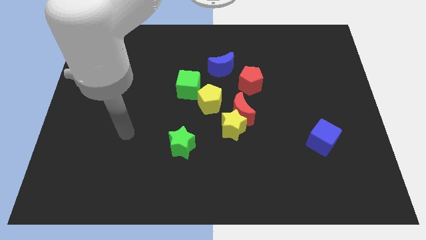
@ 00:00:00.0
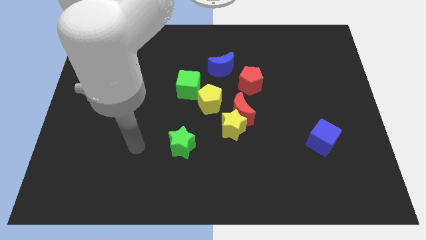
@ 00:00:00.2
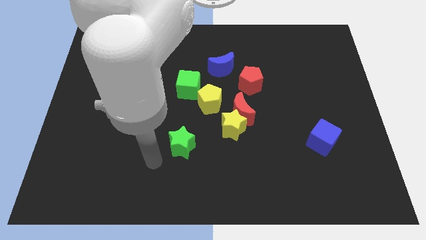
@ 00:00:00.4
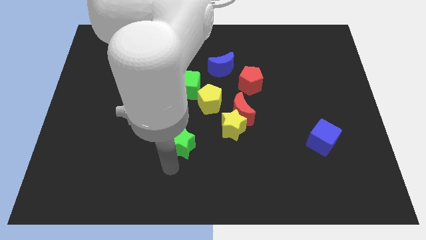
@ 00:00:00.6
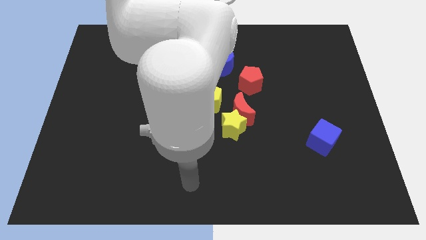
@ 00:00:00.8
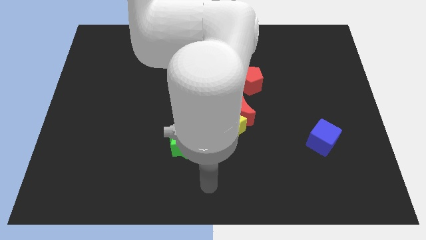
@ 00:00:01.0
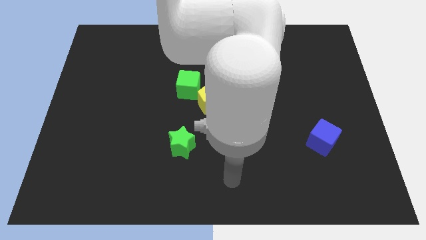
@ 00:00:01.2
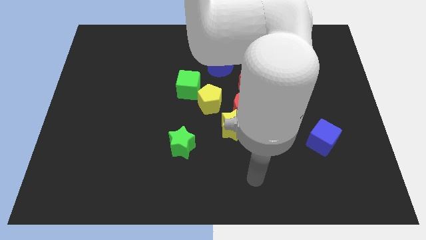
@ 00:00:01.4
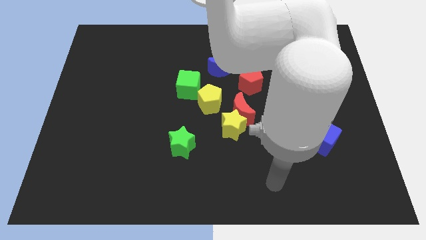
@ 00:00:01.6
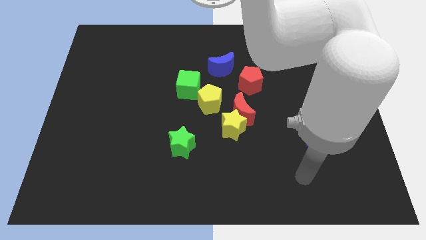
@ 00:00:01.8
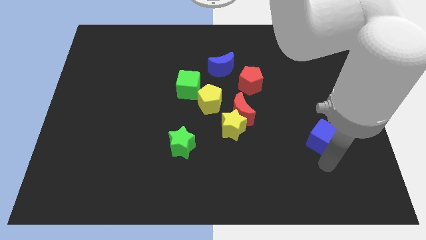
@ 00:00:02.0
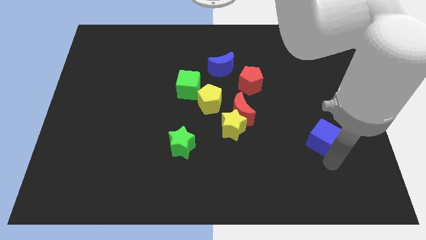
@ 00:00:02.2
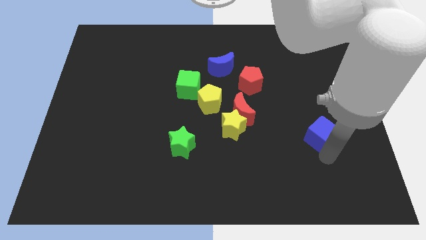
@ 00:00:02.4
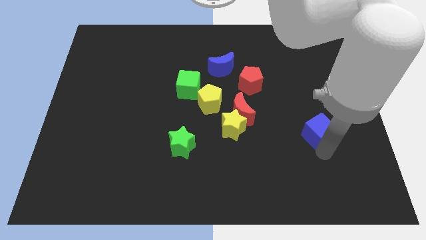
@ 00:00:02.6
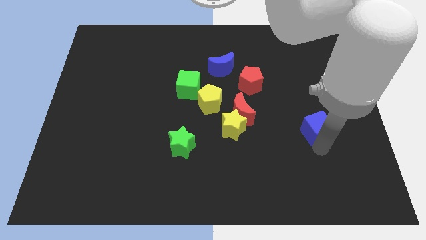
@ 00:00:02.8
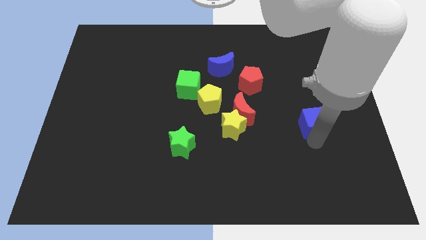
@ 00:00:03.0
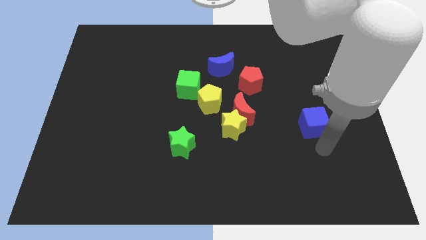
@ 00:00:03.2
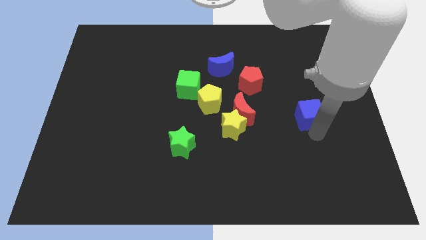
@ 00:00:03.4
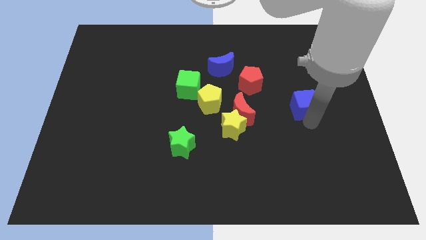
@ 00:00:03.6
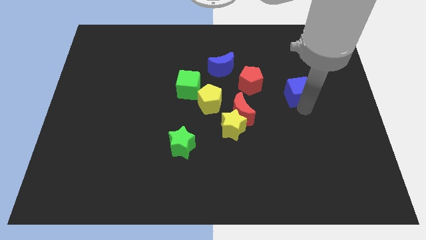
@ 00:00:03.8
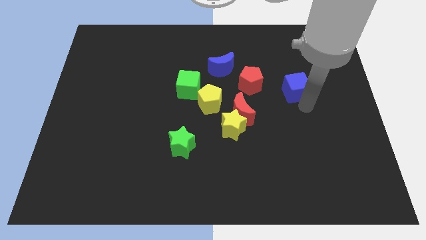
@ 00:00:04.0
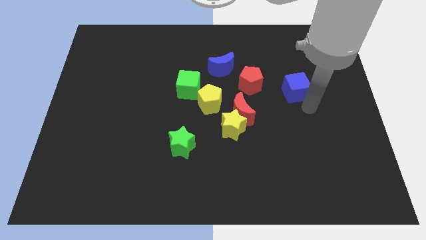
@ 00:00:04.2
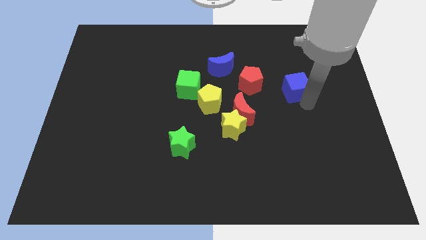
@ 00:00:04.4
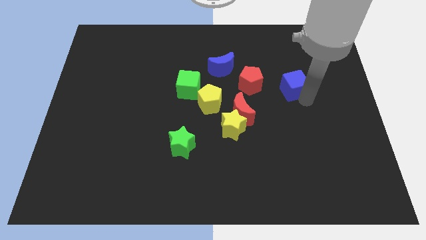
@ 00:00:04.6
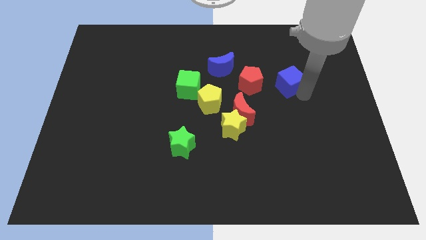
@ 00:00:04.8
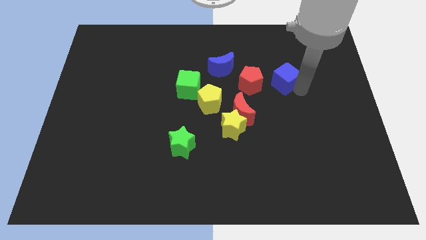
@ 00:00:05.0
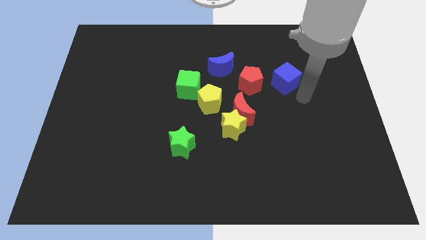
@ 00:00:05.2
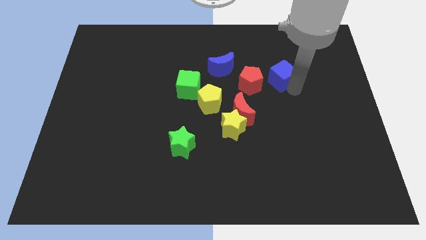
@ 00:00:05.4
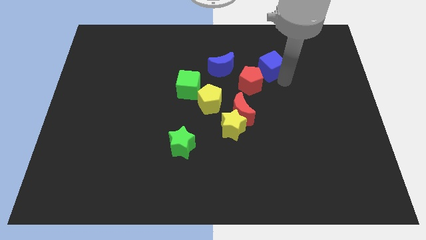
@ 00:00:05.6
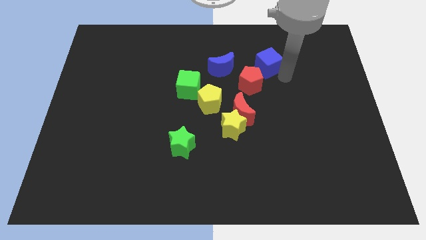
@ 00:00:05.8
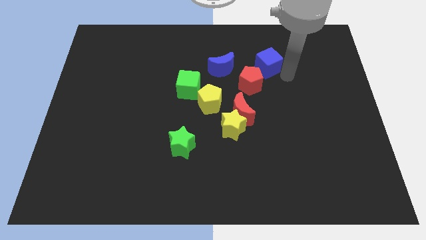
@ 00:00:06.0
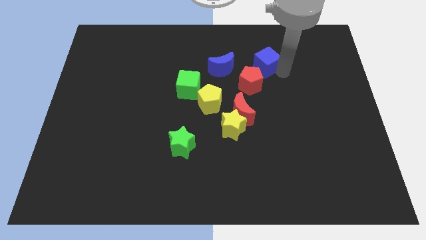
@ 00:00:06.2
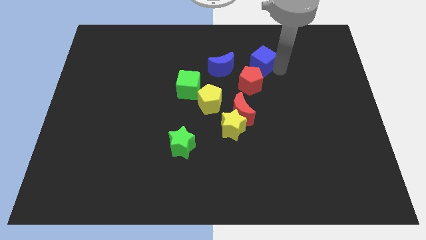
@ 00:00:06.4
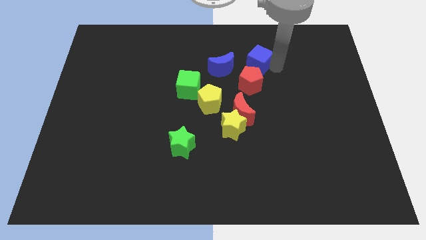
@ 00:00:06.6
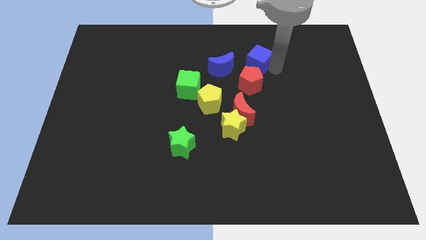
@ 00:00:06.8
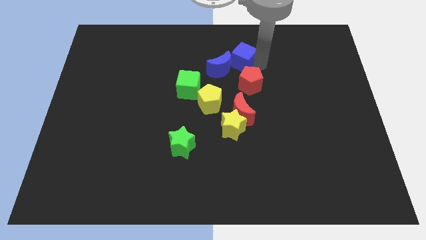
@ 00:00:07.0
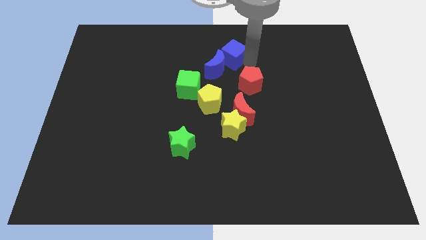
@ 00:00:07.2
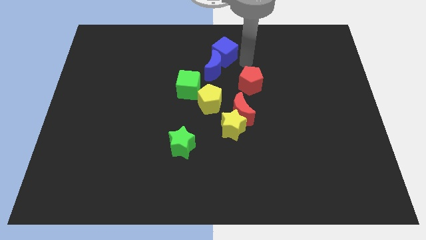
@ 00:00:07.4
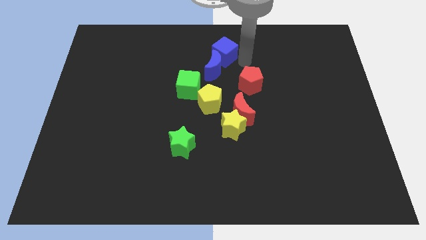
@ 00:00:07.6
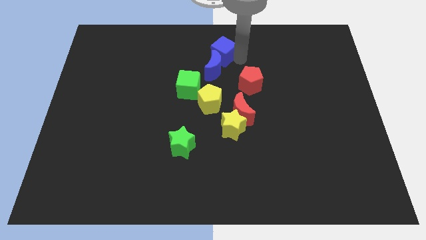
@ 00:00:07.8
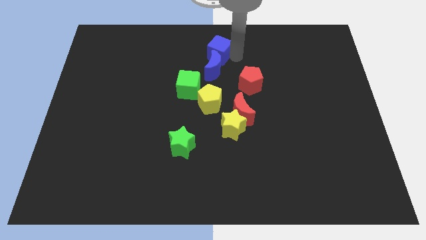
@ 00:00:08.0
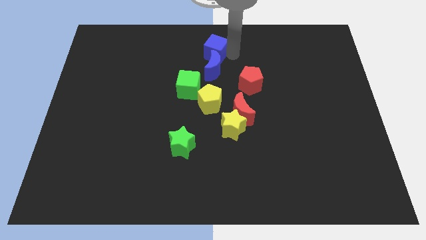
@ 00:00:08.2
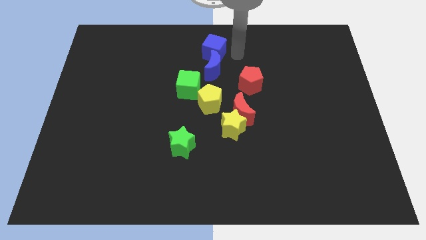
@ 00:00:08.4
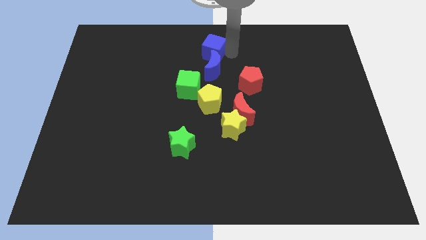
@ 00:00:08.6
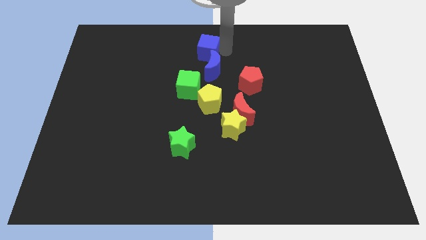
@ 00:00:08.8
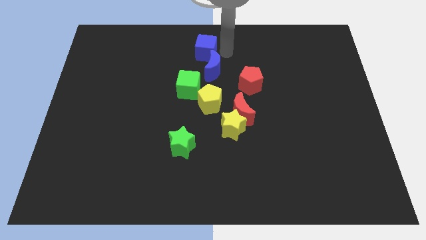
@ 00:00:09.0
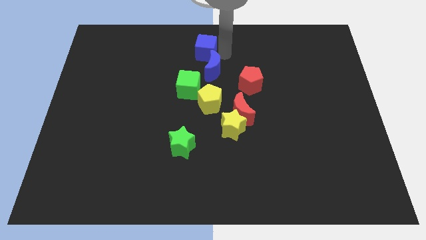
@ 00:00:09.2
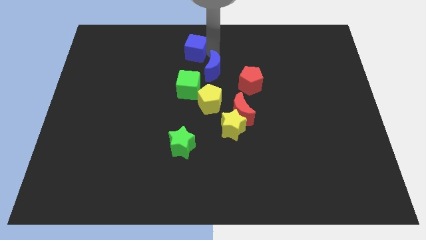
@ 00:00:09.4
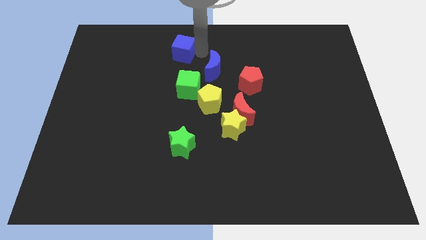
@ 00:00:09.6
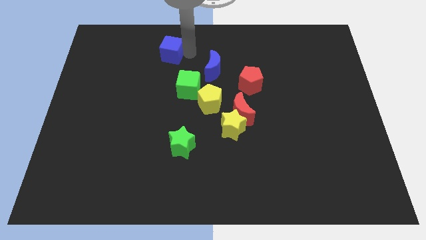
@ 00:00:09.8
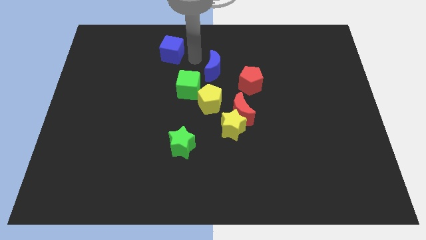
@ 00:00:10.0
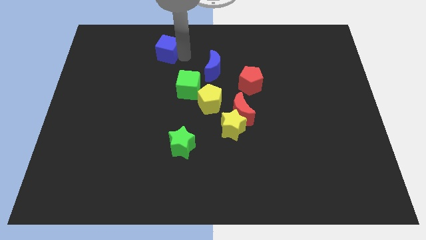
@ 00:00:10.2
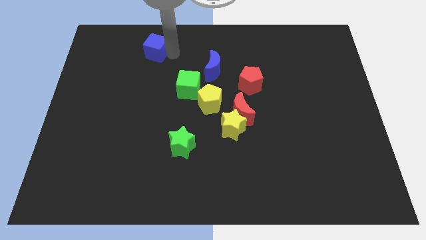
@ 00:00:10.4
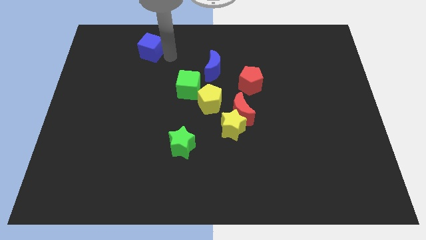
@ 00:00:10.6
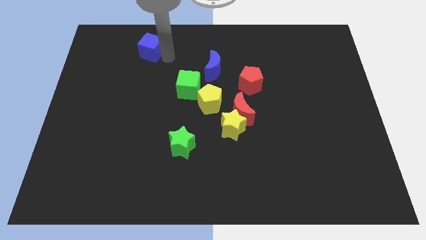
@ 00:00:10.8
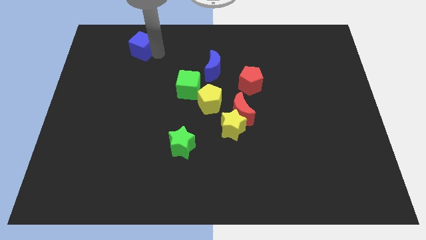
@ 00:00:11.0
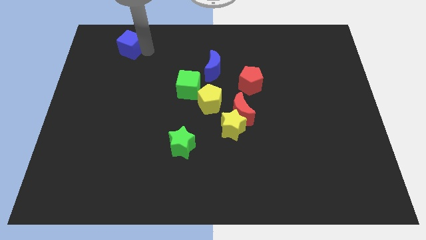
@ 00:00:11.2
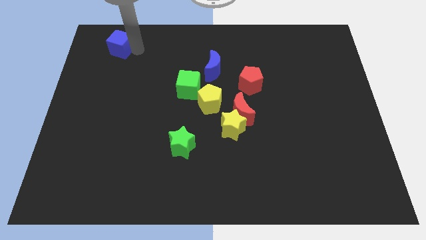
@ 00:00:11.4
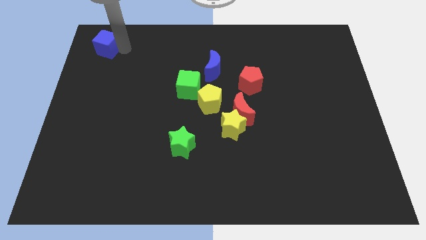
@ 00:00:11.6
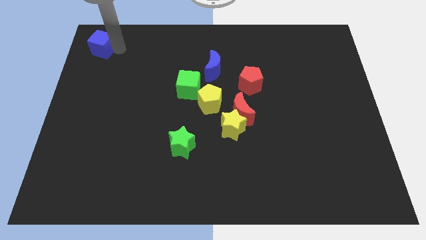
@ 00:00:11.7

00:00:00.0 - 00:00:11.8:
put the blue cube to the upper left corner

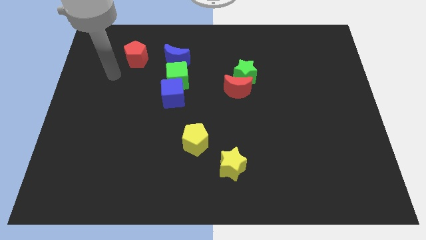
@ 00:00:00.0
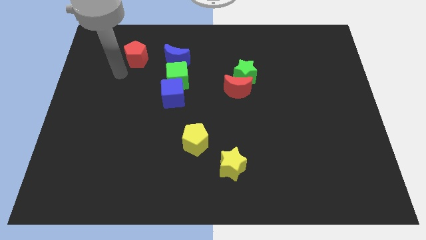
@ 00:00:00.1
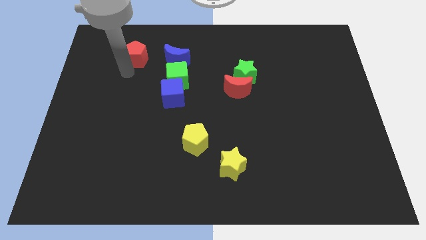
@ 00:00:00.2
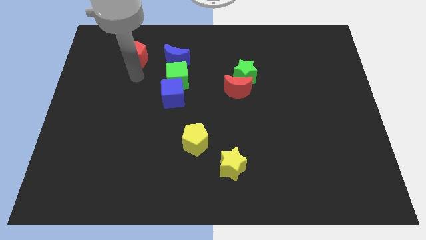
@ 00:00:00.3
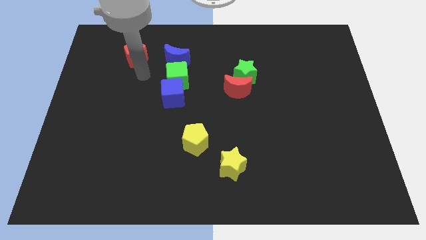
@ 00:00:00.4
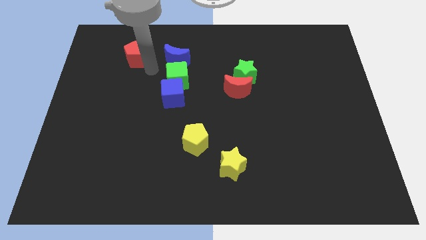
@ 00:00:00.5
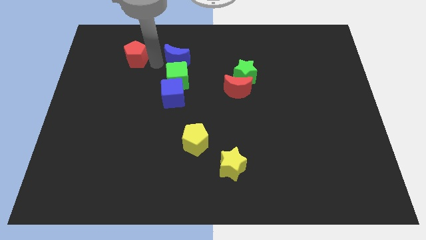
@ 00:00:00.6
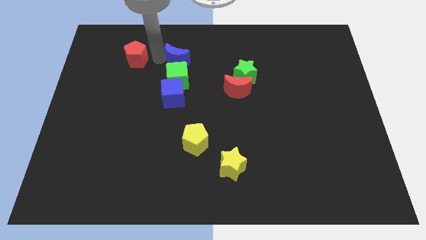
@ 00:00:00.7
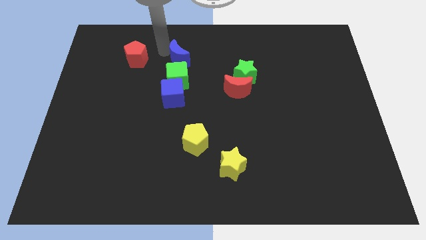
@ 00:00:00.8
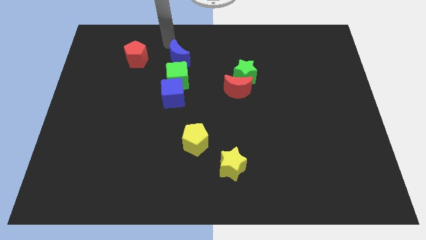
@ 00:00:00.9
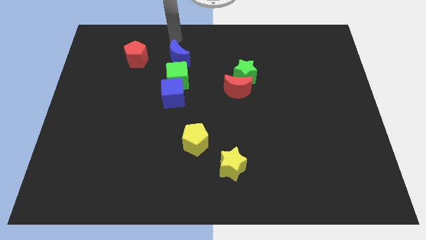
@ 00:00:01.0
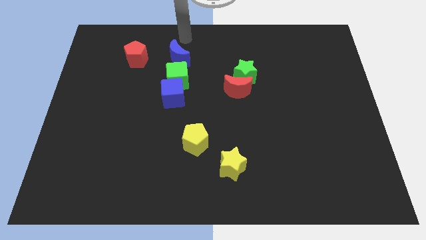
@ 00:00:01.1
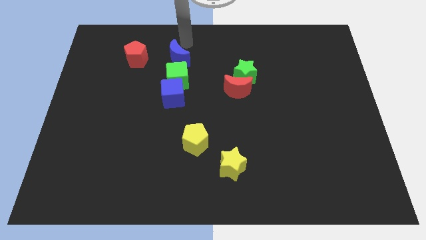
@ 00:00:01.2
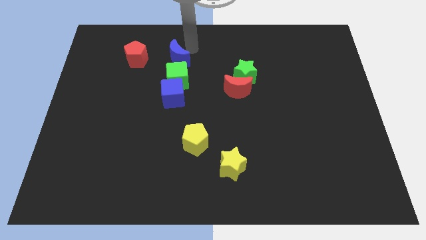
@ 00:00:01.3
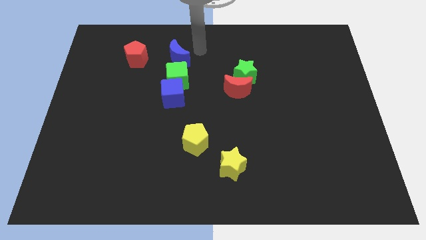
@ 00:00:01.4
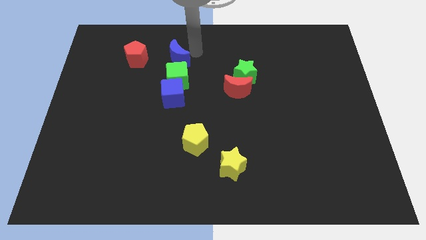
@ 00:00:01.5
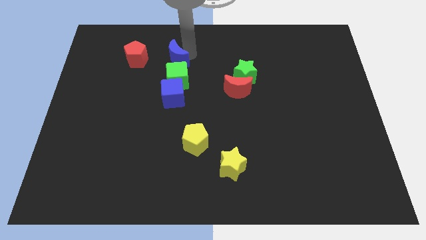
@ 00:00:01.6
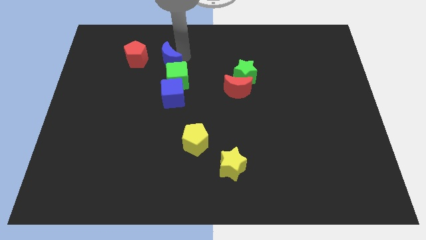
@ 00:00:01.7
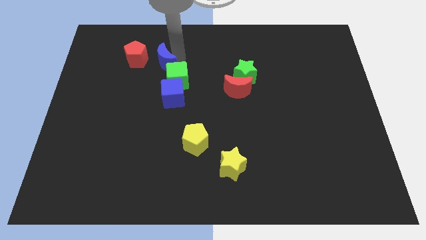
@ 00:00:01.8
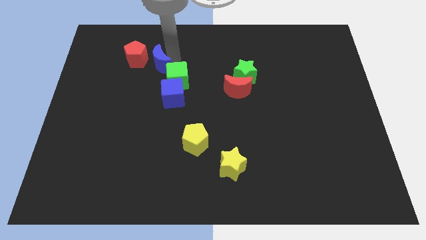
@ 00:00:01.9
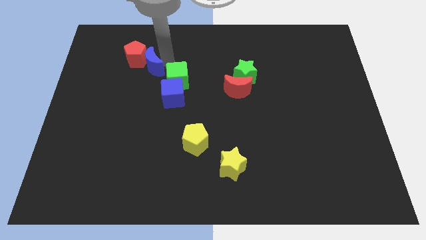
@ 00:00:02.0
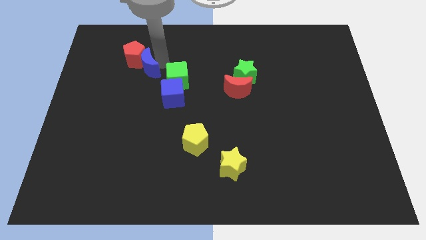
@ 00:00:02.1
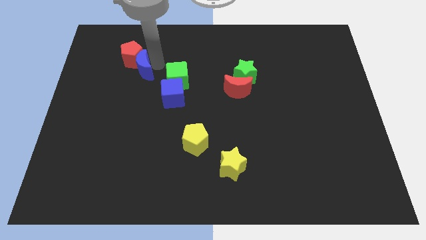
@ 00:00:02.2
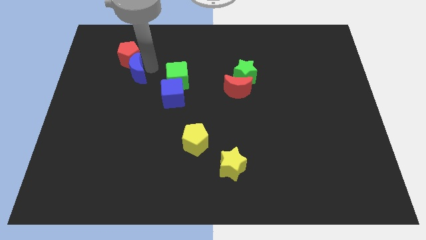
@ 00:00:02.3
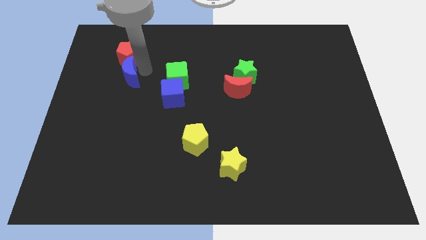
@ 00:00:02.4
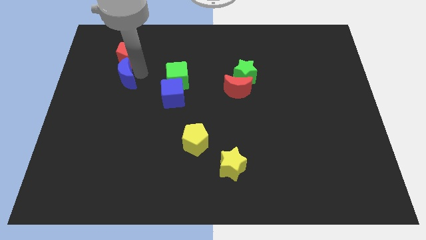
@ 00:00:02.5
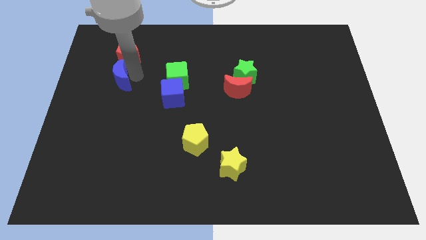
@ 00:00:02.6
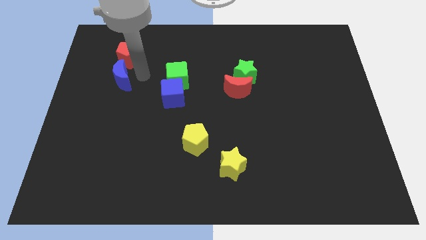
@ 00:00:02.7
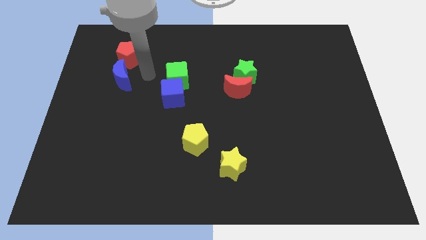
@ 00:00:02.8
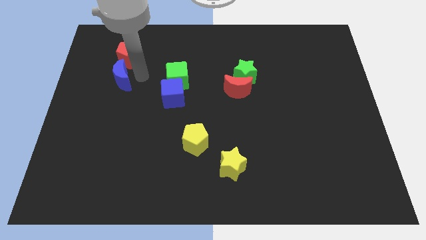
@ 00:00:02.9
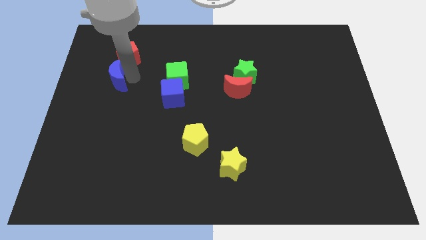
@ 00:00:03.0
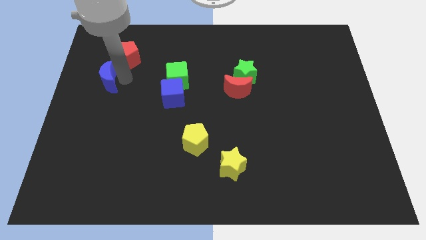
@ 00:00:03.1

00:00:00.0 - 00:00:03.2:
put the blue moon to the left side
